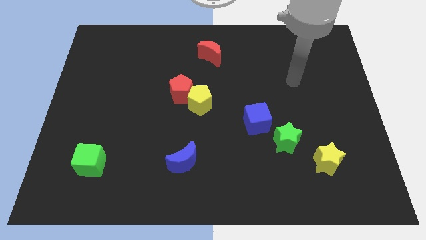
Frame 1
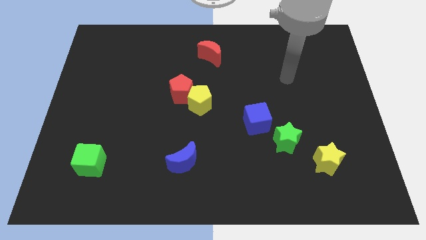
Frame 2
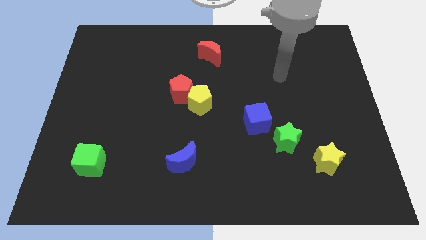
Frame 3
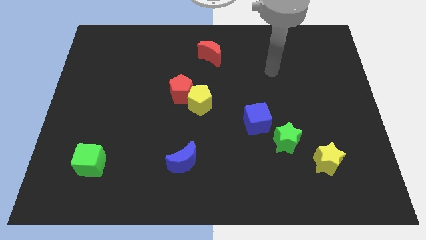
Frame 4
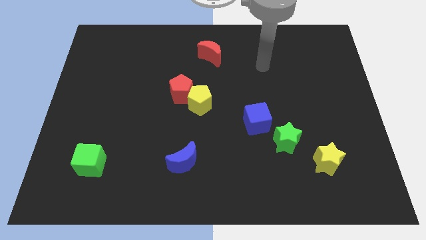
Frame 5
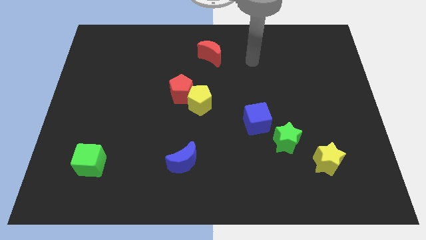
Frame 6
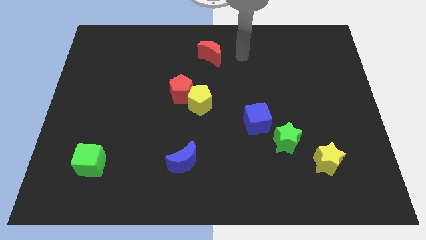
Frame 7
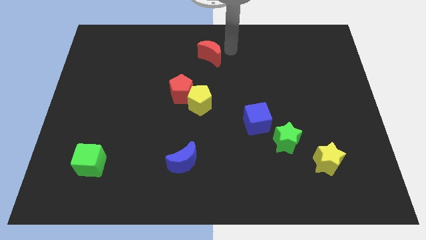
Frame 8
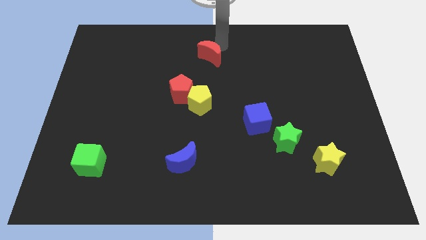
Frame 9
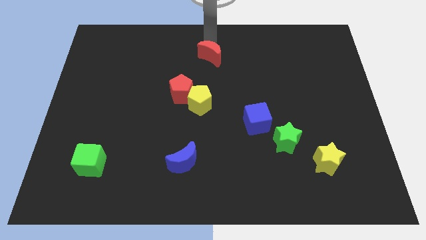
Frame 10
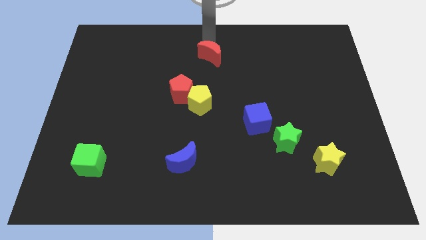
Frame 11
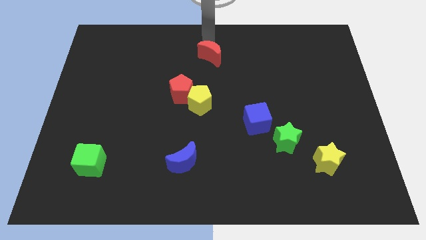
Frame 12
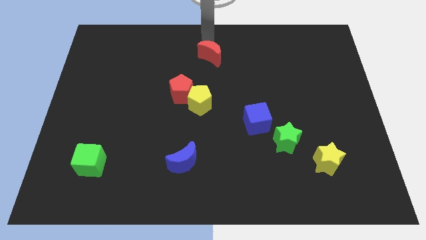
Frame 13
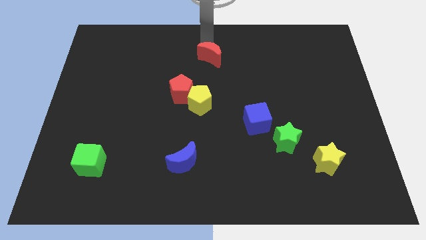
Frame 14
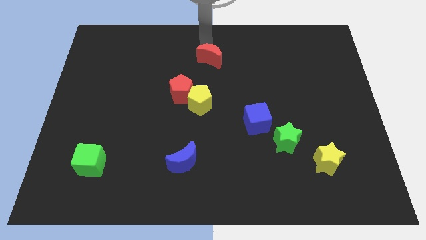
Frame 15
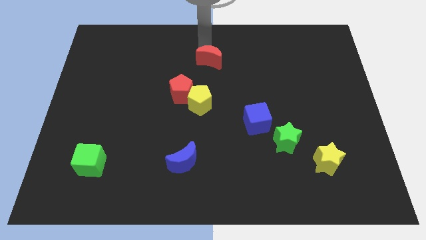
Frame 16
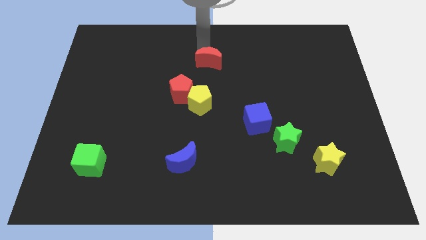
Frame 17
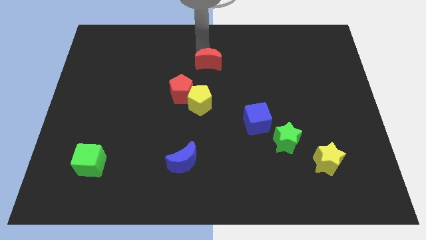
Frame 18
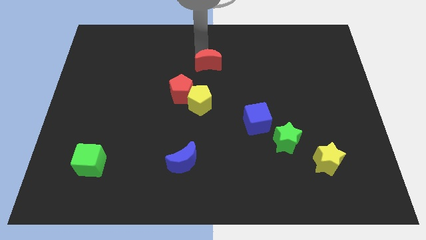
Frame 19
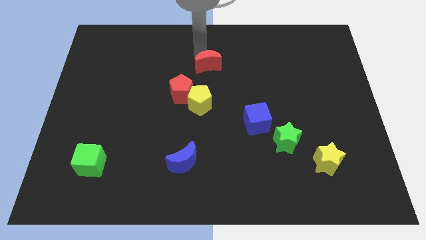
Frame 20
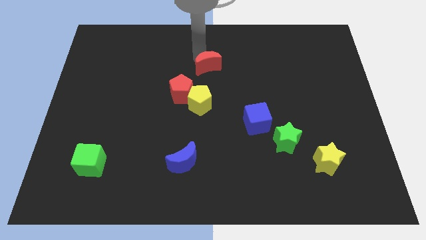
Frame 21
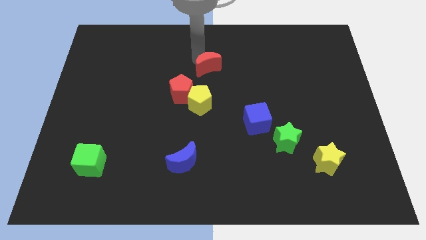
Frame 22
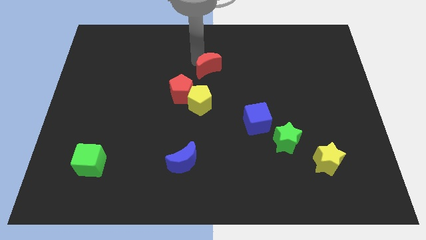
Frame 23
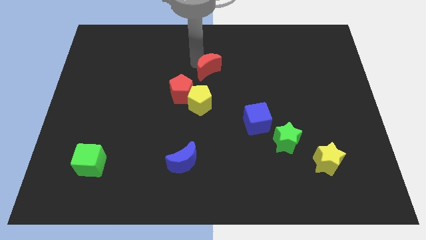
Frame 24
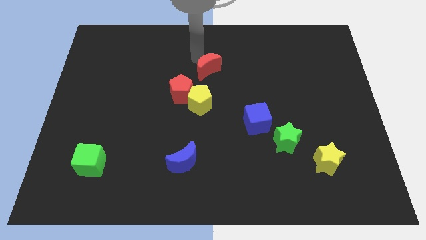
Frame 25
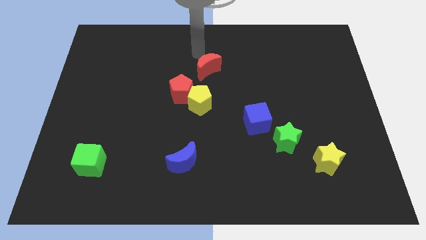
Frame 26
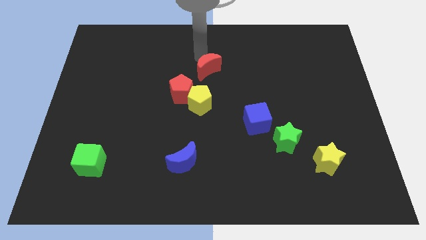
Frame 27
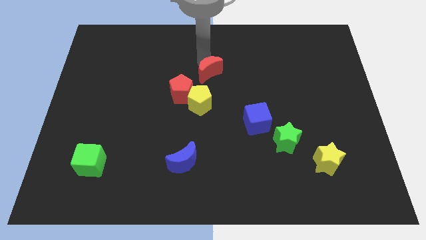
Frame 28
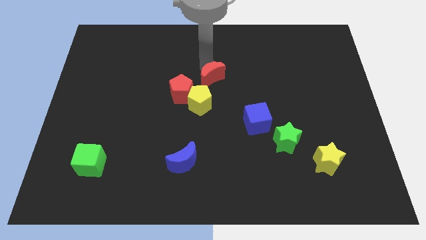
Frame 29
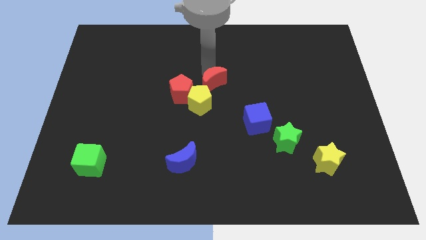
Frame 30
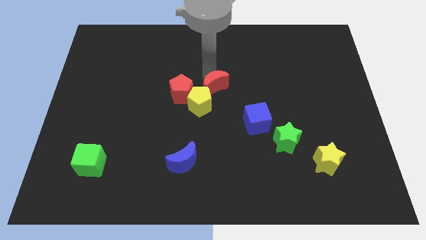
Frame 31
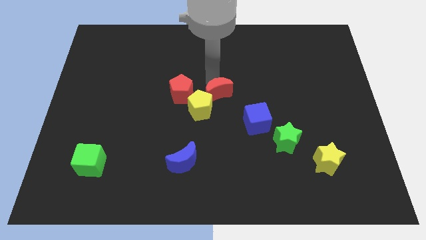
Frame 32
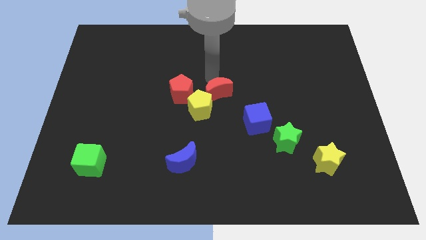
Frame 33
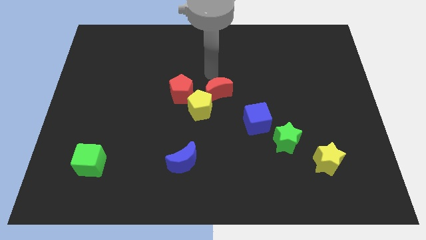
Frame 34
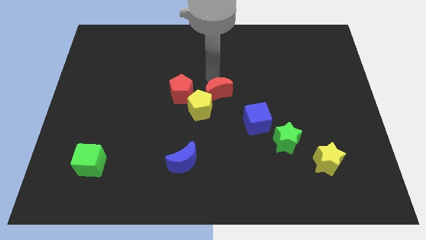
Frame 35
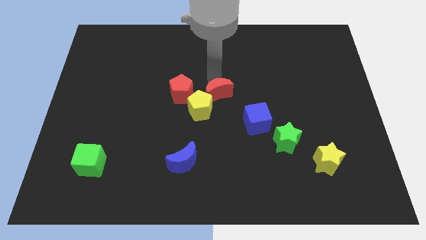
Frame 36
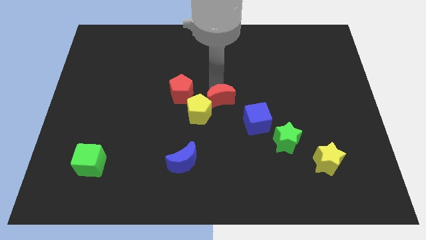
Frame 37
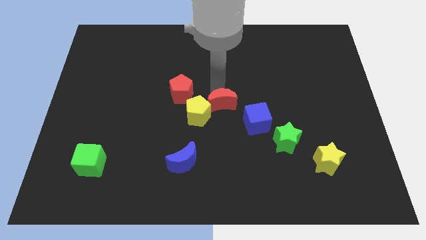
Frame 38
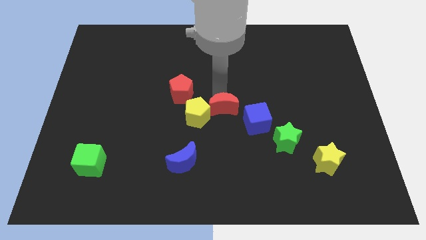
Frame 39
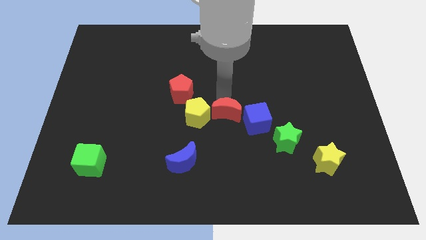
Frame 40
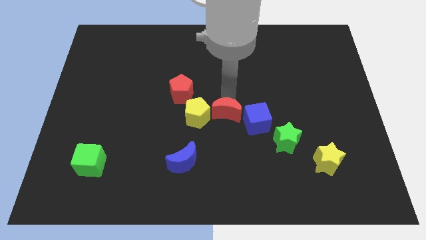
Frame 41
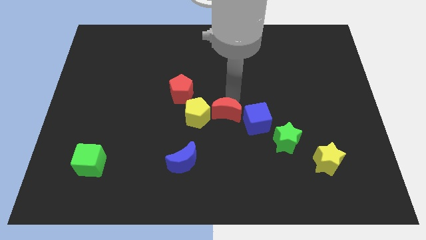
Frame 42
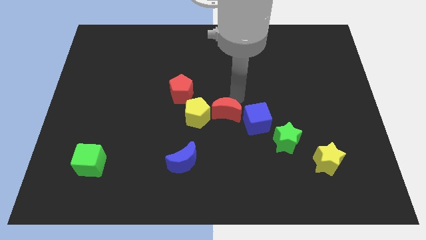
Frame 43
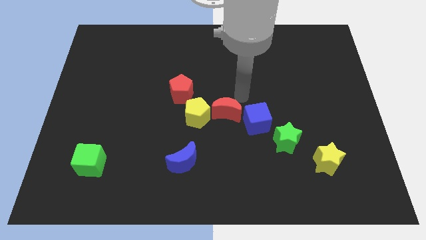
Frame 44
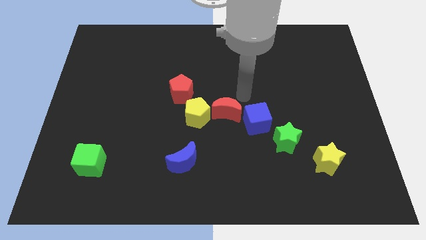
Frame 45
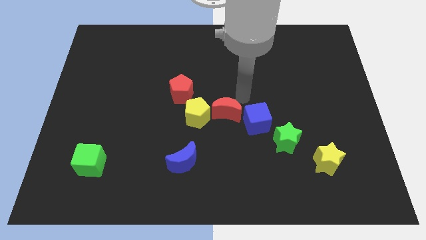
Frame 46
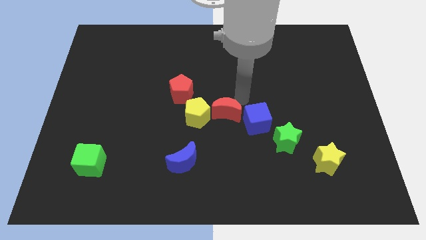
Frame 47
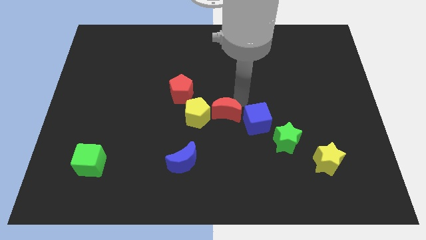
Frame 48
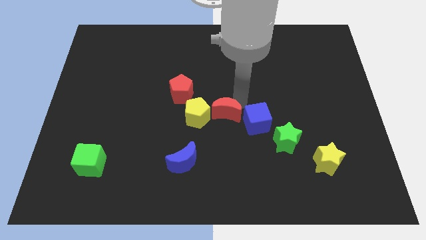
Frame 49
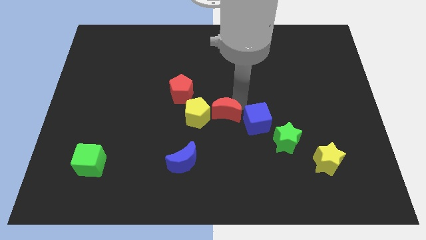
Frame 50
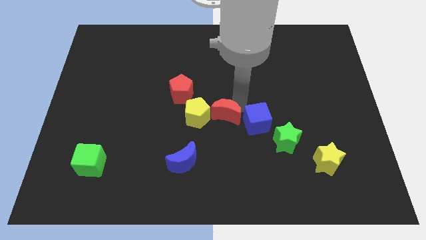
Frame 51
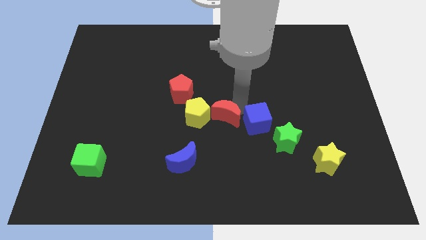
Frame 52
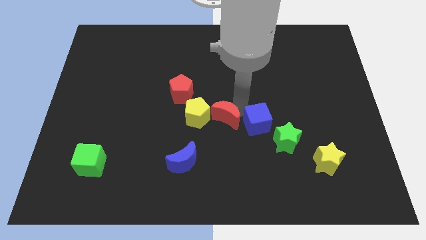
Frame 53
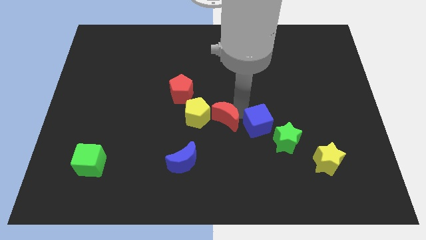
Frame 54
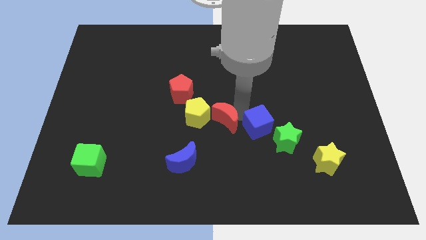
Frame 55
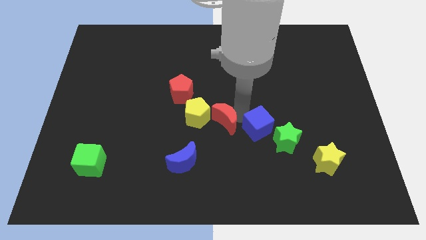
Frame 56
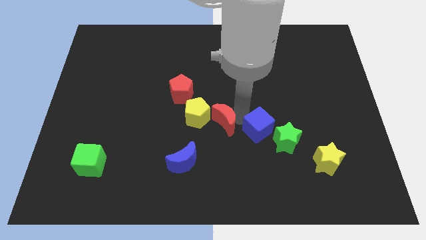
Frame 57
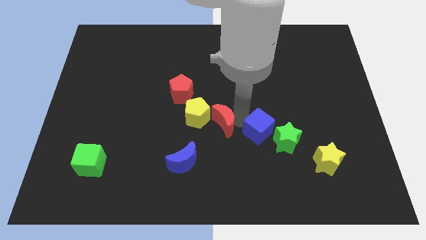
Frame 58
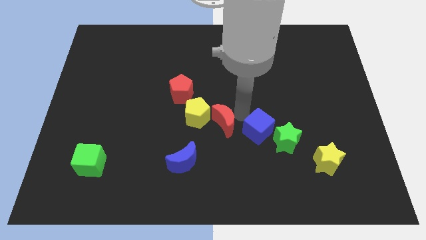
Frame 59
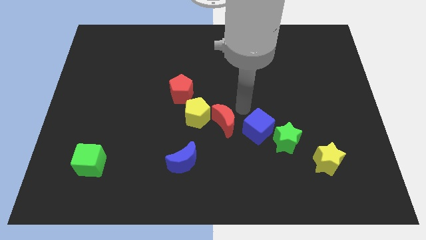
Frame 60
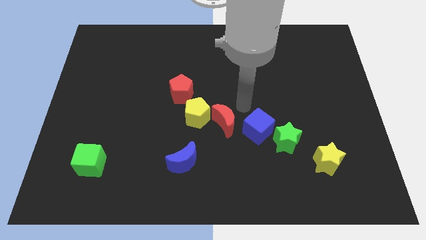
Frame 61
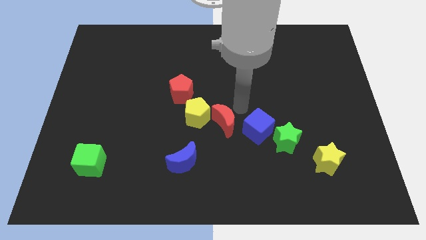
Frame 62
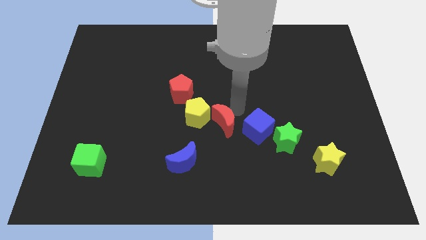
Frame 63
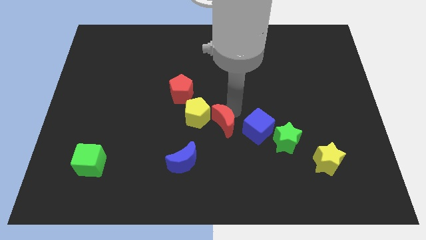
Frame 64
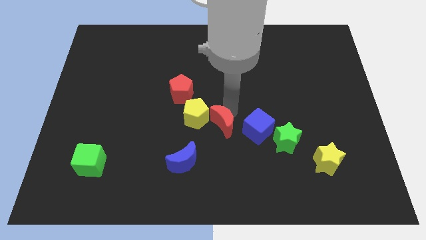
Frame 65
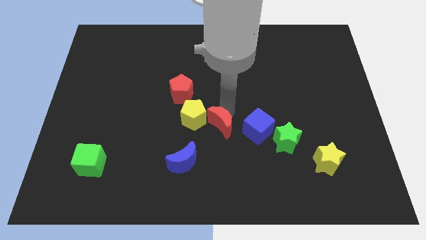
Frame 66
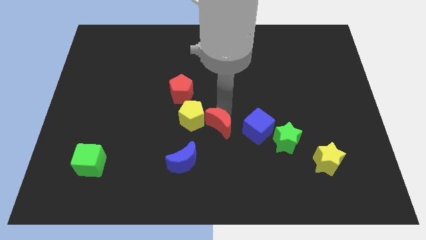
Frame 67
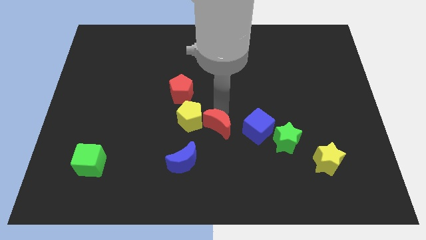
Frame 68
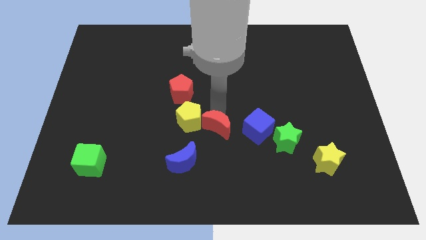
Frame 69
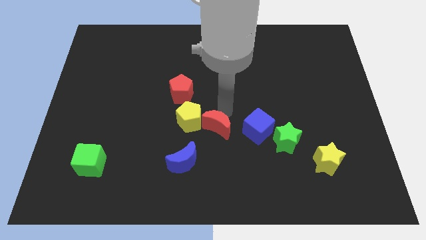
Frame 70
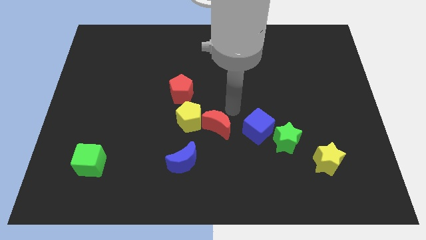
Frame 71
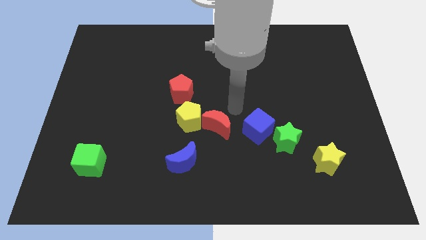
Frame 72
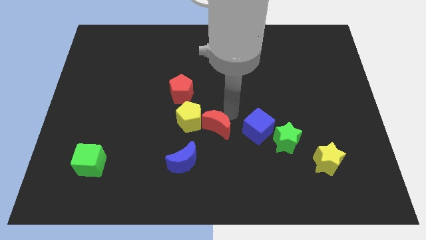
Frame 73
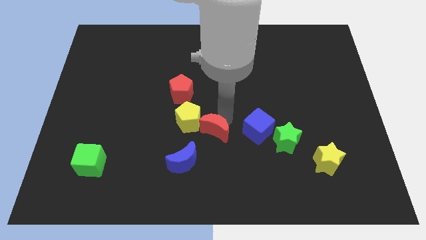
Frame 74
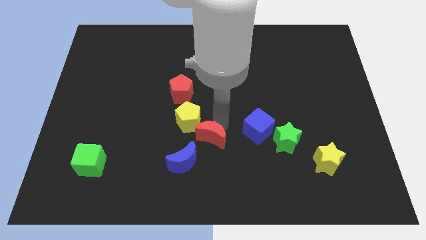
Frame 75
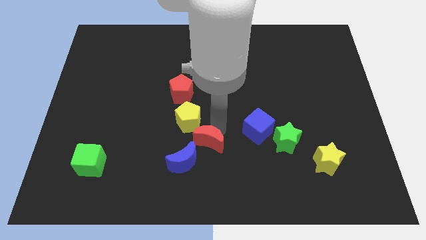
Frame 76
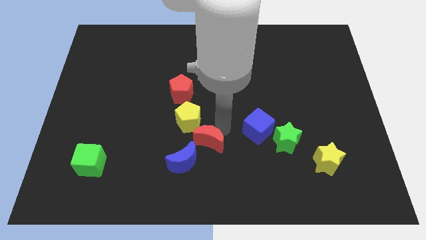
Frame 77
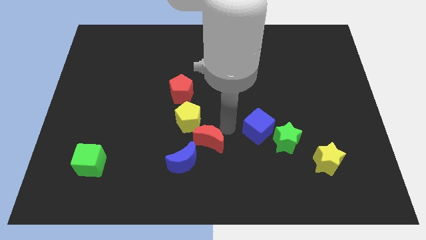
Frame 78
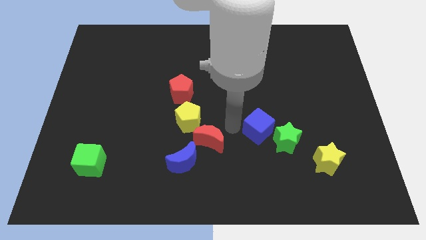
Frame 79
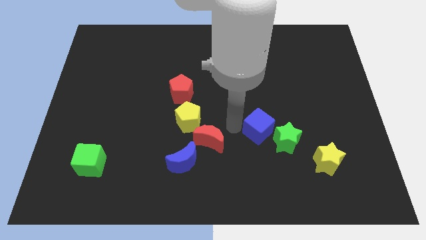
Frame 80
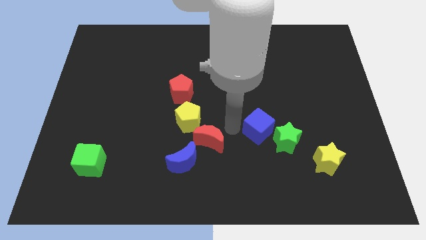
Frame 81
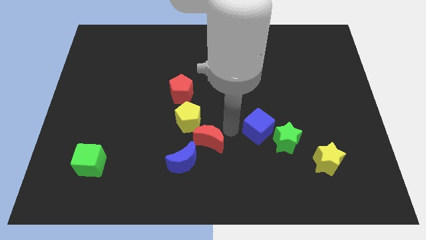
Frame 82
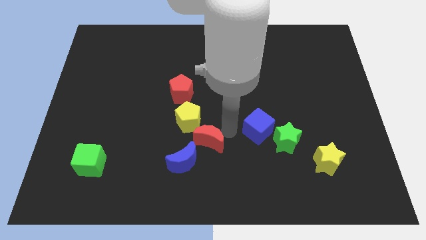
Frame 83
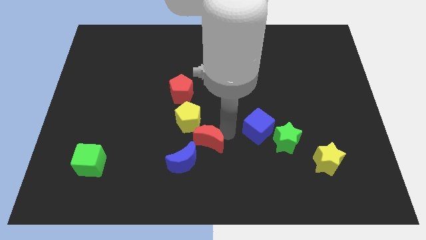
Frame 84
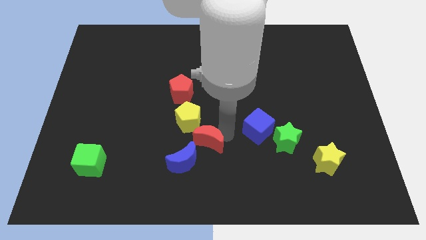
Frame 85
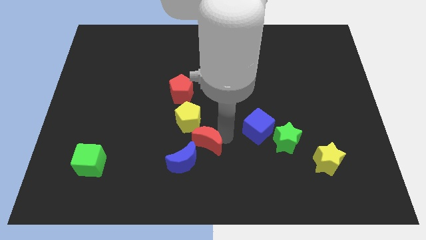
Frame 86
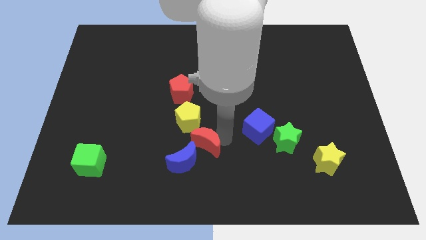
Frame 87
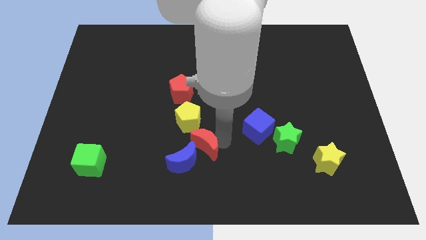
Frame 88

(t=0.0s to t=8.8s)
move the red moon towards the blue moon
